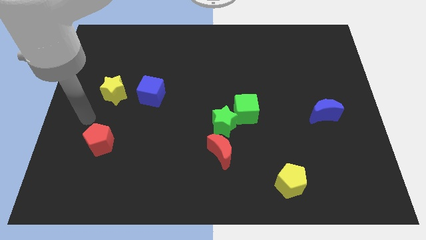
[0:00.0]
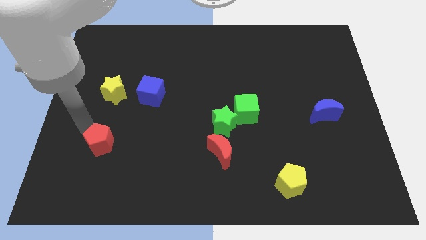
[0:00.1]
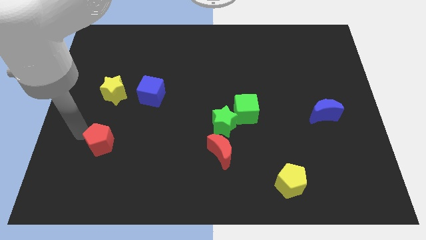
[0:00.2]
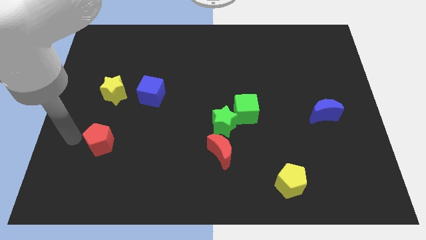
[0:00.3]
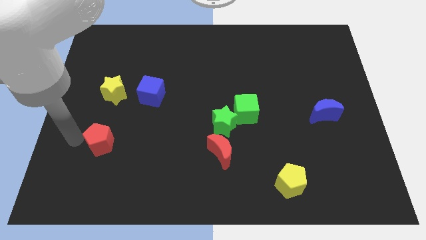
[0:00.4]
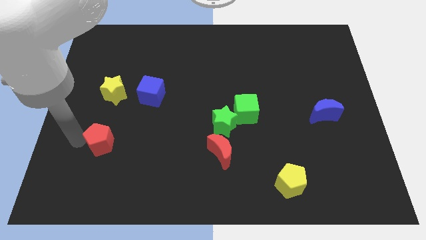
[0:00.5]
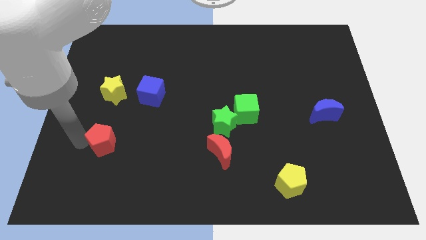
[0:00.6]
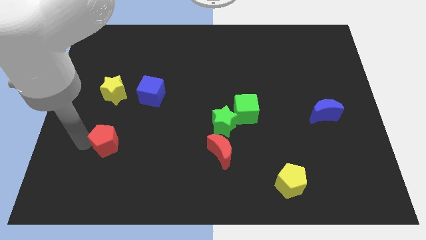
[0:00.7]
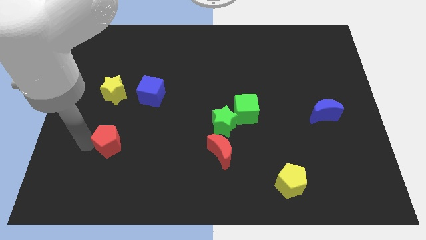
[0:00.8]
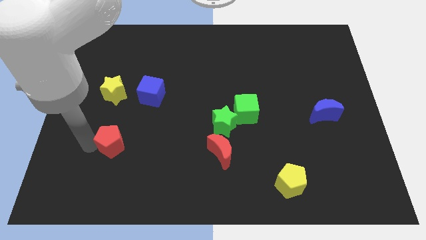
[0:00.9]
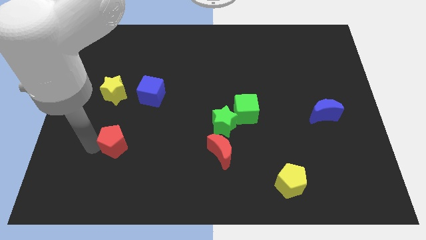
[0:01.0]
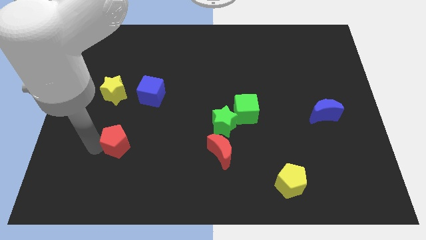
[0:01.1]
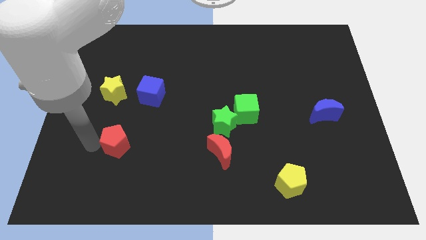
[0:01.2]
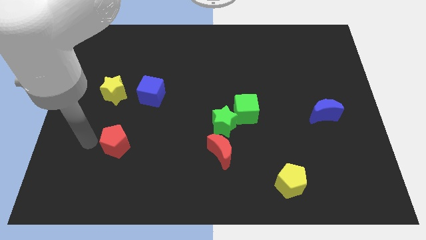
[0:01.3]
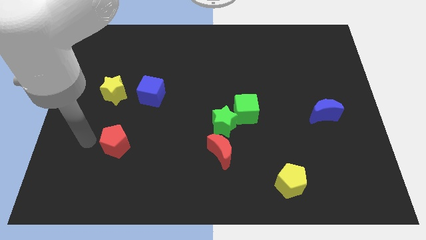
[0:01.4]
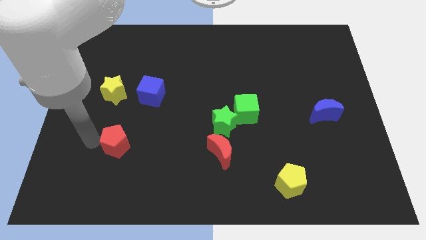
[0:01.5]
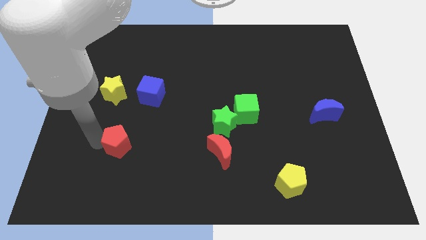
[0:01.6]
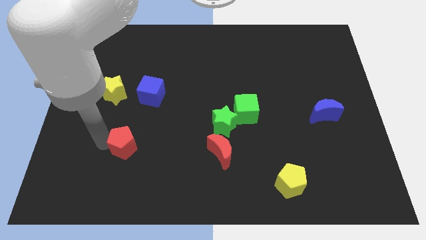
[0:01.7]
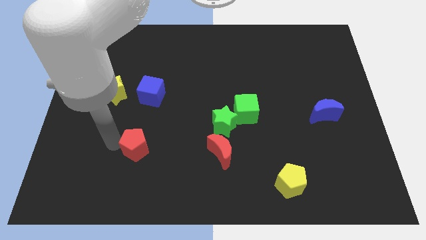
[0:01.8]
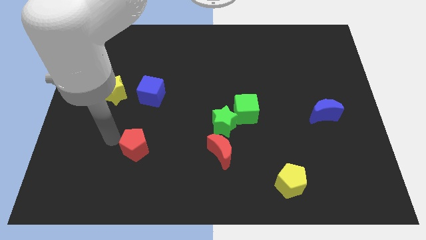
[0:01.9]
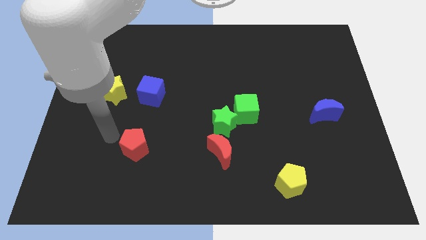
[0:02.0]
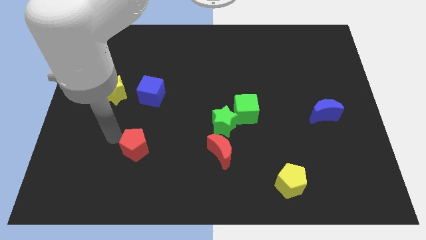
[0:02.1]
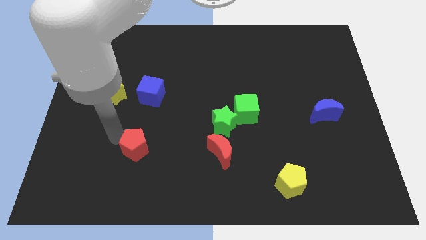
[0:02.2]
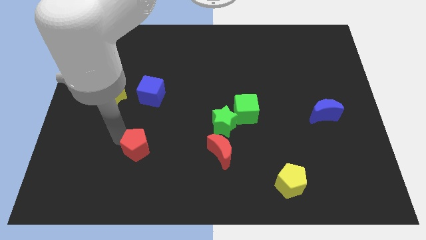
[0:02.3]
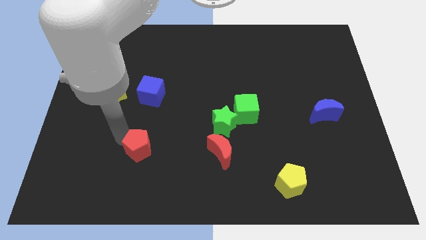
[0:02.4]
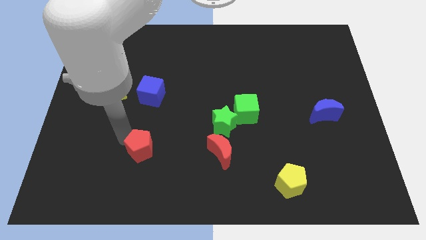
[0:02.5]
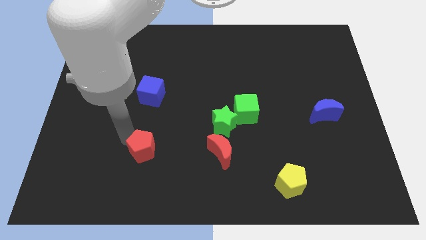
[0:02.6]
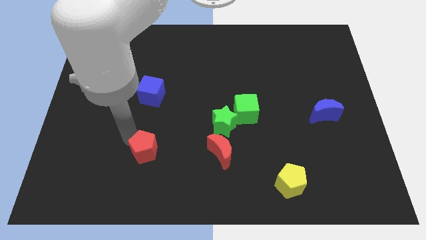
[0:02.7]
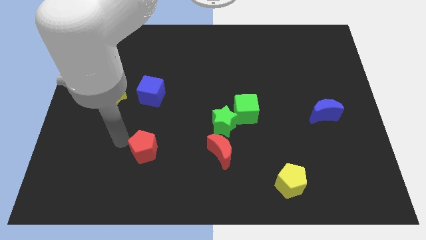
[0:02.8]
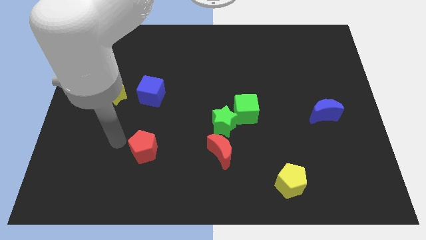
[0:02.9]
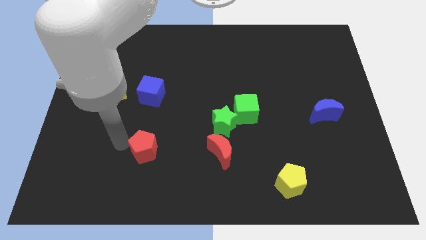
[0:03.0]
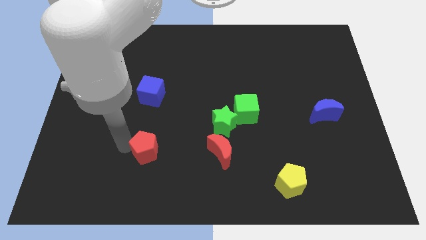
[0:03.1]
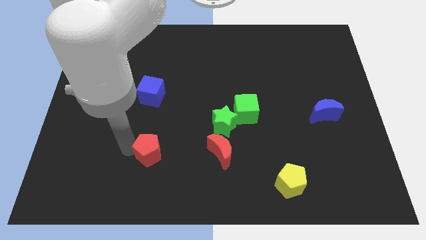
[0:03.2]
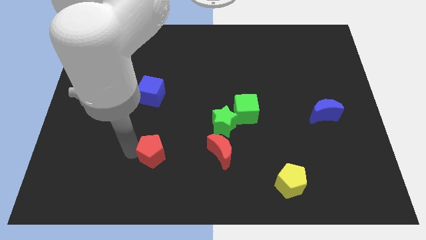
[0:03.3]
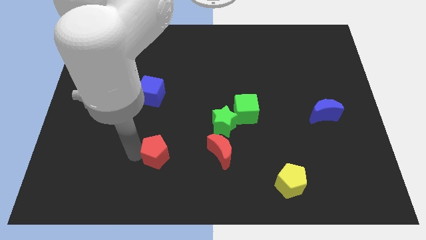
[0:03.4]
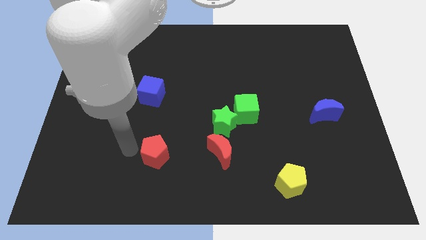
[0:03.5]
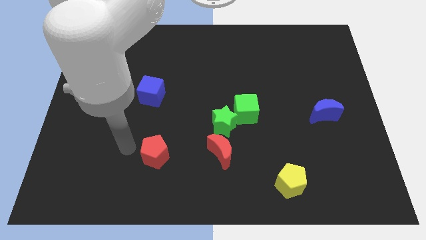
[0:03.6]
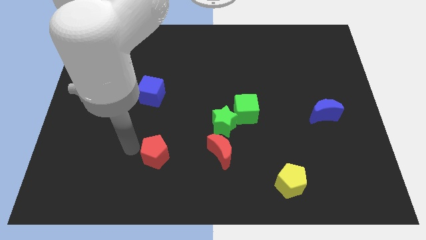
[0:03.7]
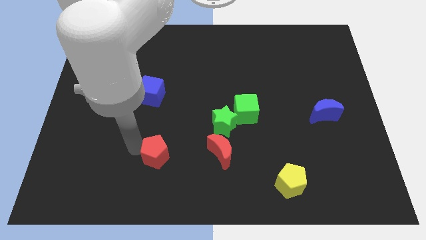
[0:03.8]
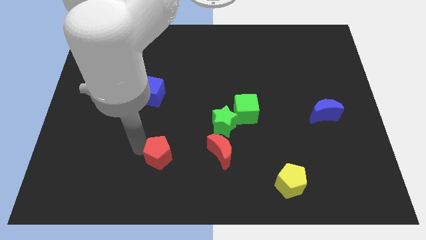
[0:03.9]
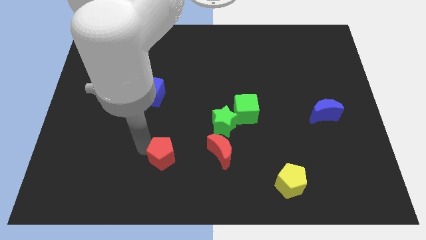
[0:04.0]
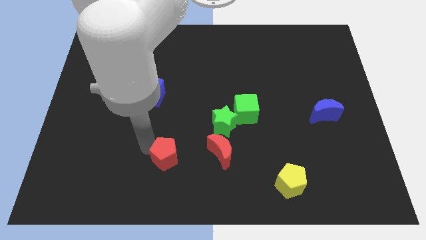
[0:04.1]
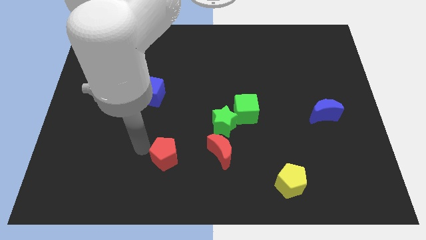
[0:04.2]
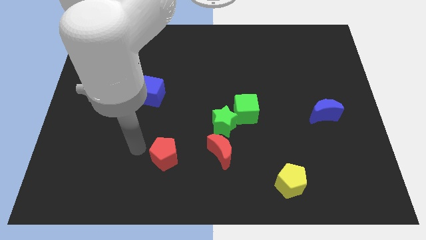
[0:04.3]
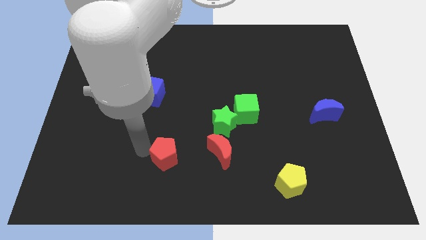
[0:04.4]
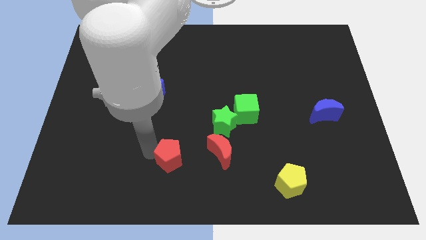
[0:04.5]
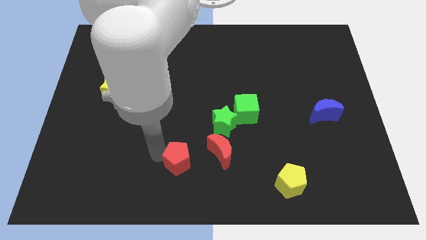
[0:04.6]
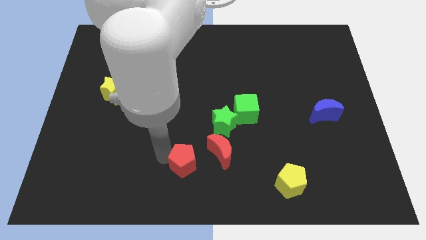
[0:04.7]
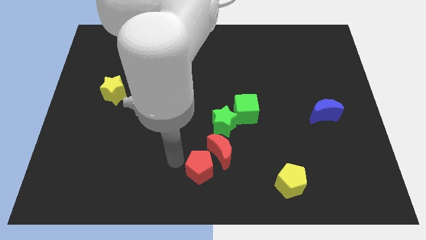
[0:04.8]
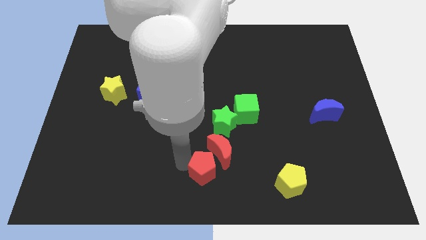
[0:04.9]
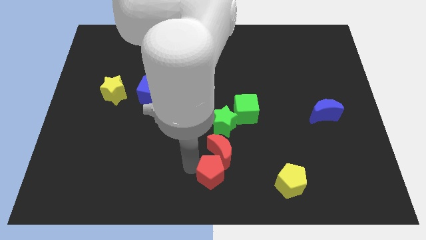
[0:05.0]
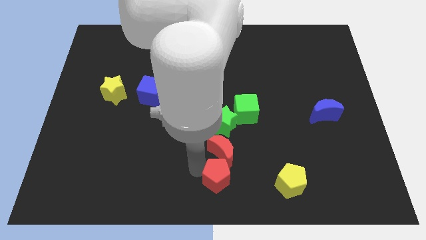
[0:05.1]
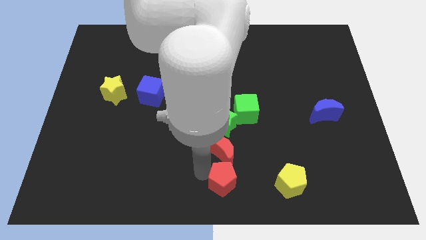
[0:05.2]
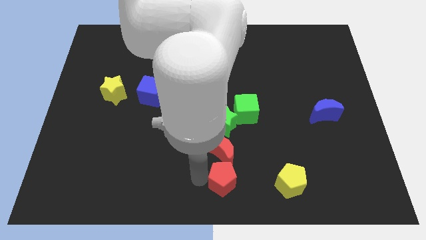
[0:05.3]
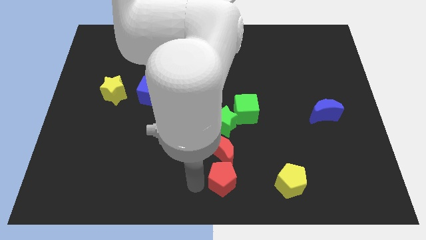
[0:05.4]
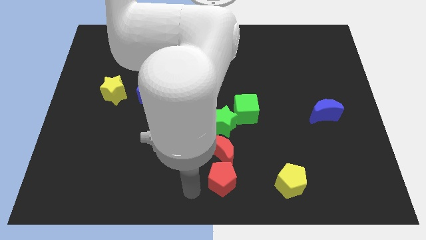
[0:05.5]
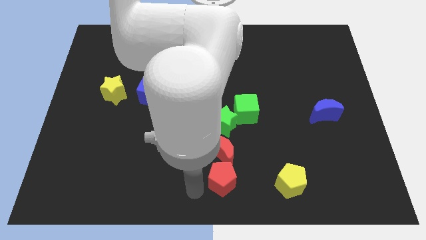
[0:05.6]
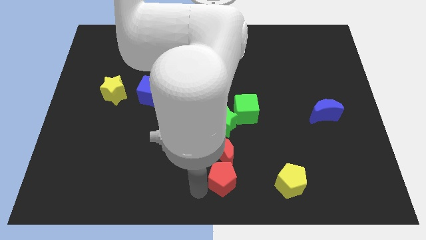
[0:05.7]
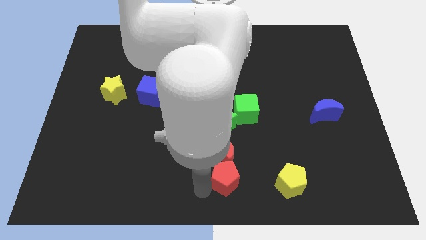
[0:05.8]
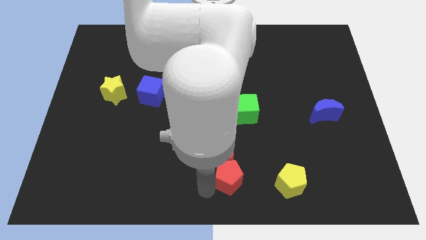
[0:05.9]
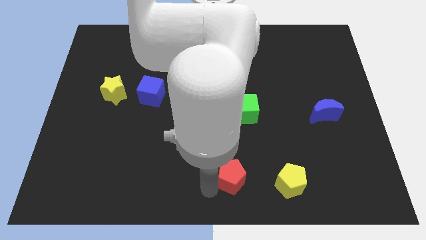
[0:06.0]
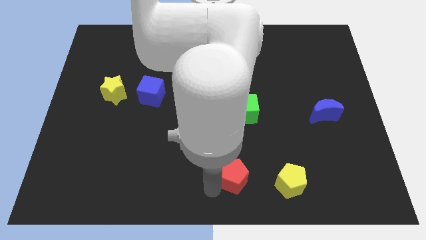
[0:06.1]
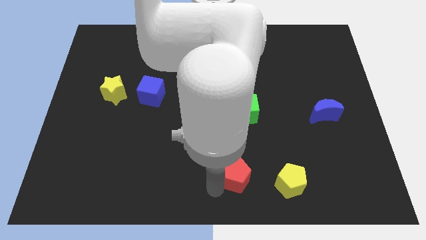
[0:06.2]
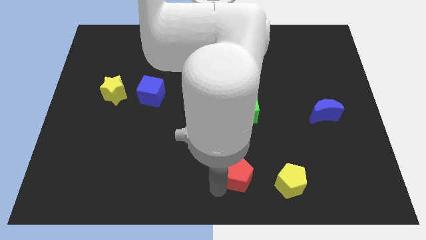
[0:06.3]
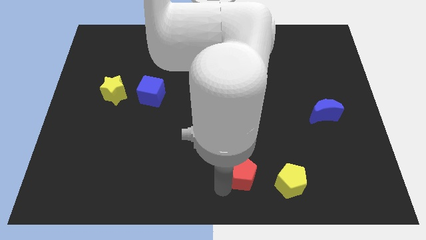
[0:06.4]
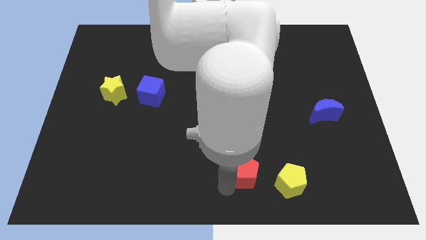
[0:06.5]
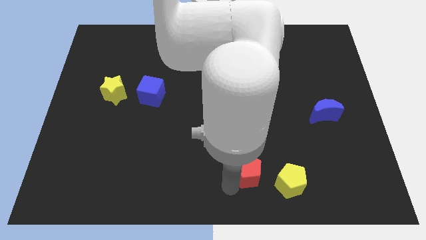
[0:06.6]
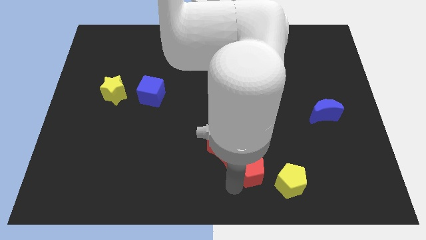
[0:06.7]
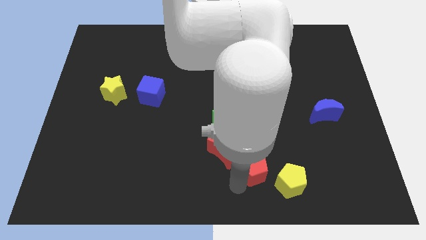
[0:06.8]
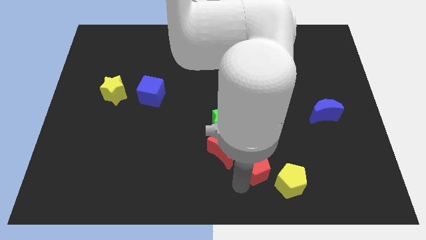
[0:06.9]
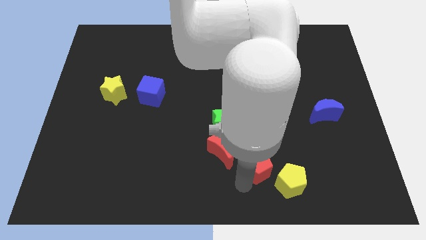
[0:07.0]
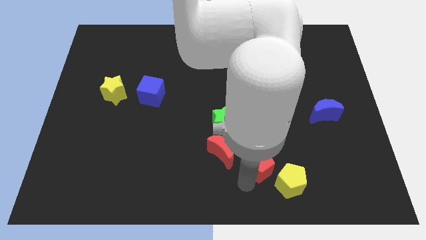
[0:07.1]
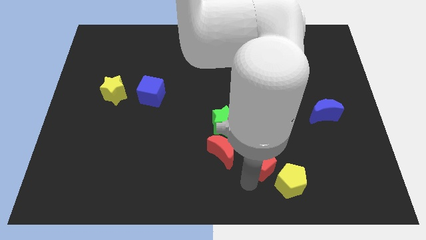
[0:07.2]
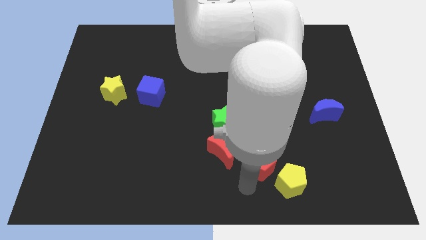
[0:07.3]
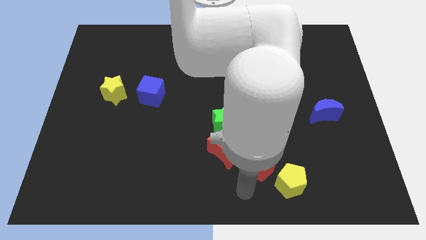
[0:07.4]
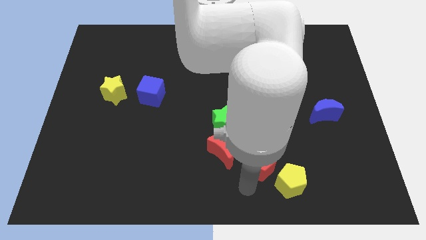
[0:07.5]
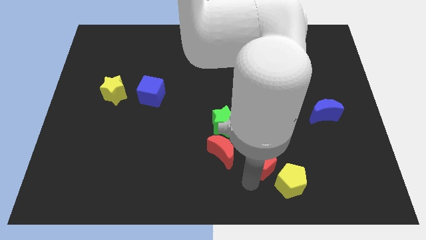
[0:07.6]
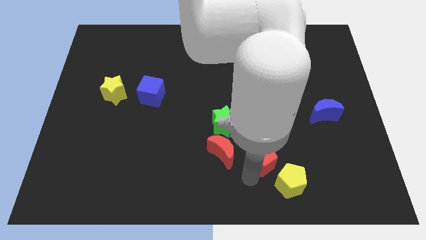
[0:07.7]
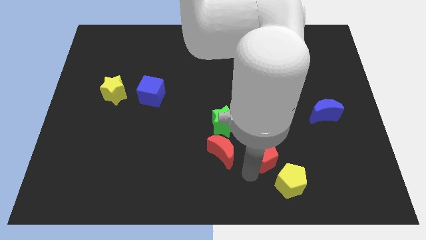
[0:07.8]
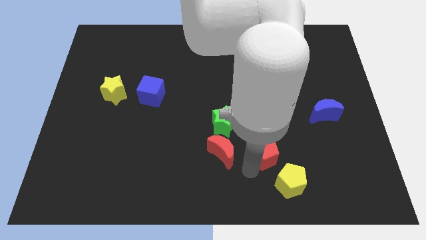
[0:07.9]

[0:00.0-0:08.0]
put the red pentagon to the top of the yellow pentagon
